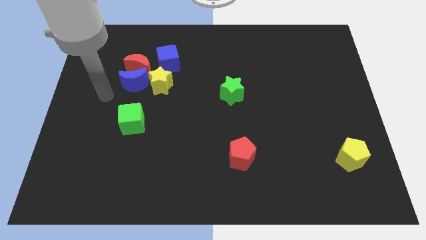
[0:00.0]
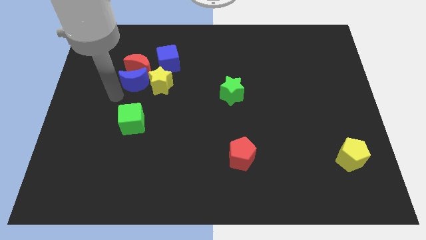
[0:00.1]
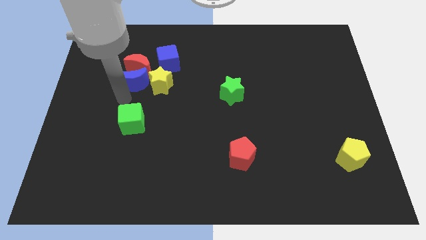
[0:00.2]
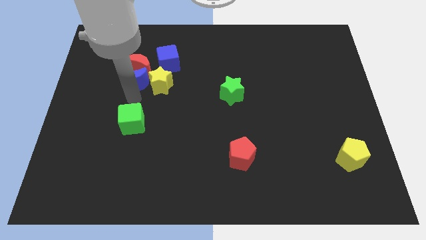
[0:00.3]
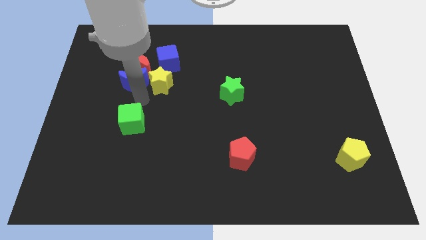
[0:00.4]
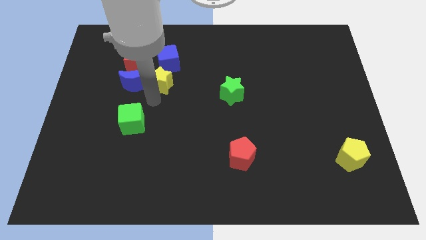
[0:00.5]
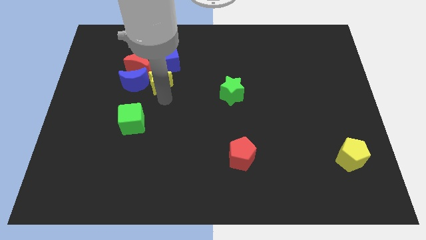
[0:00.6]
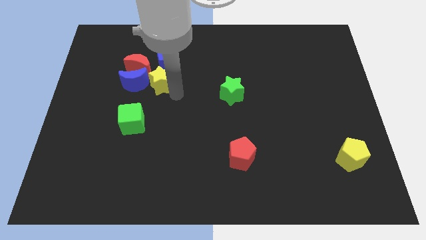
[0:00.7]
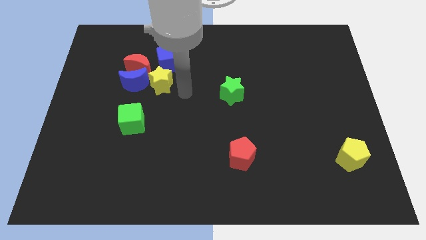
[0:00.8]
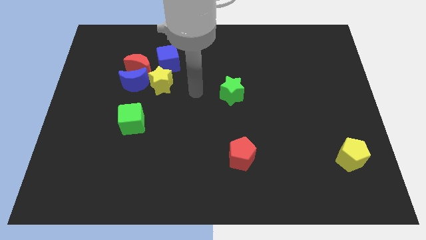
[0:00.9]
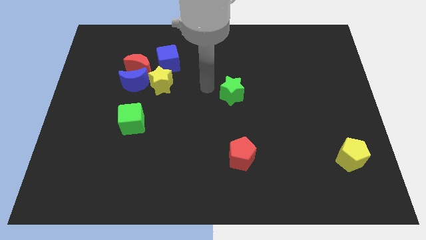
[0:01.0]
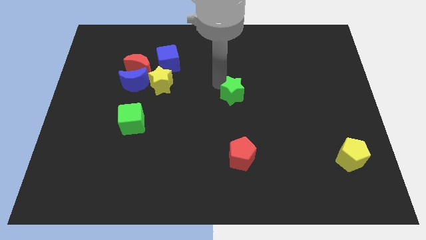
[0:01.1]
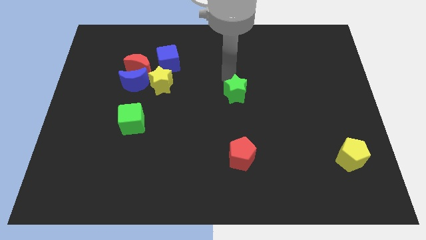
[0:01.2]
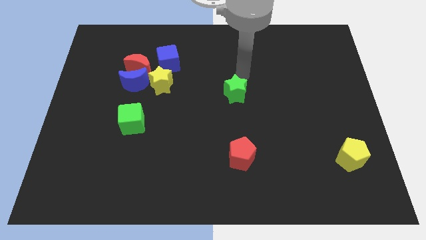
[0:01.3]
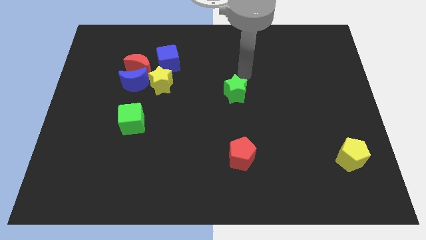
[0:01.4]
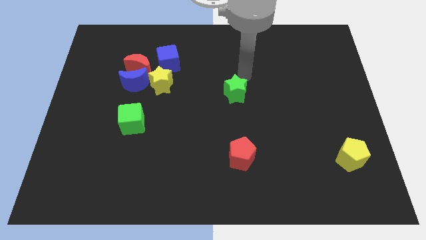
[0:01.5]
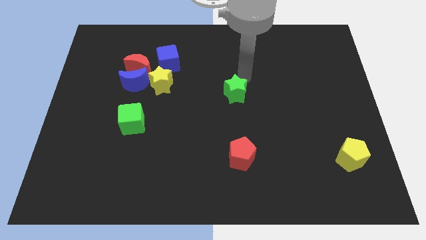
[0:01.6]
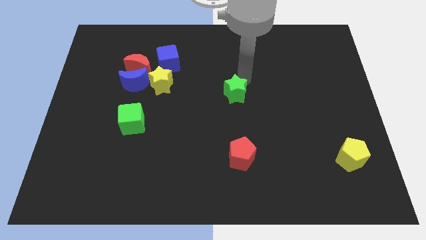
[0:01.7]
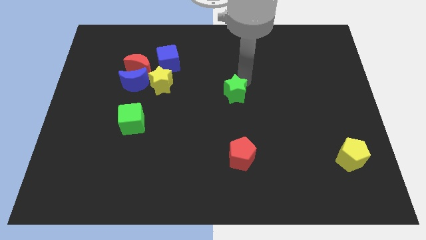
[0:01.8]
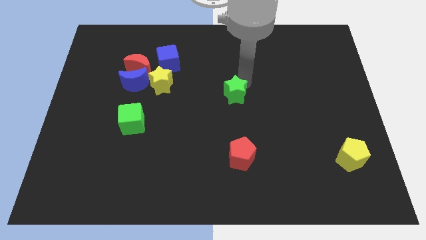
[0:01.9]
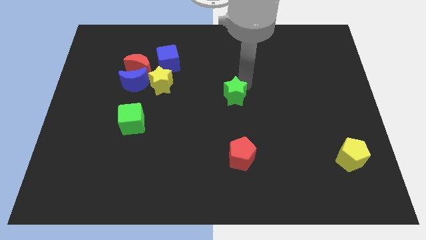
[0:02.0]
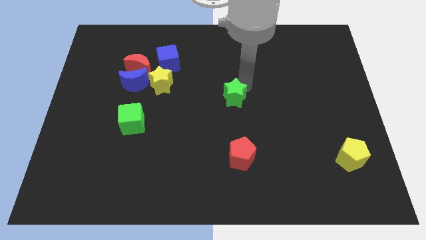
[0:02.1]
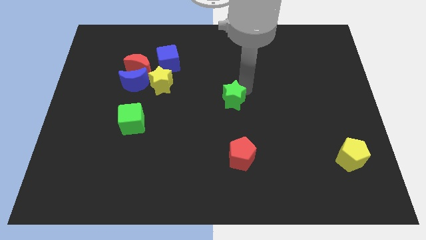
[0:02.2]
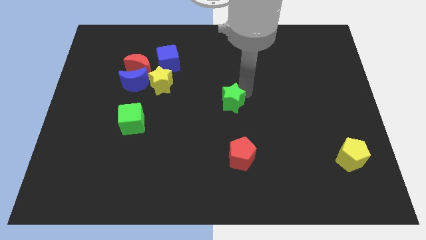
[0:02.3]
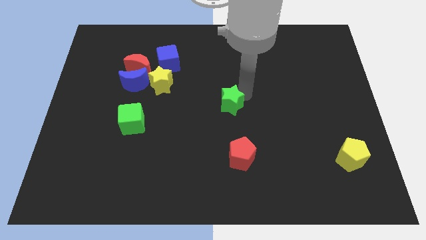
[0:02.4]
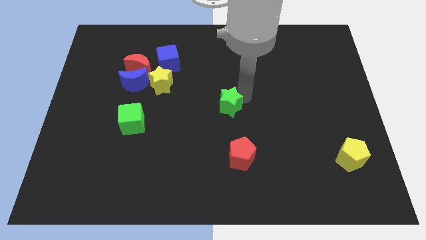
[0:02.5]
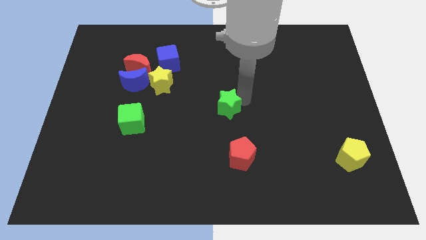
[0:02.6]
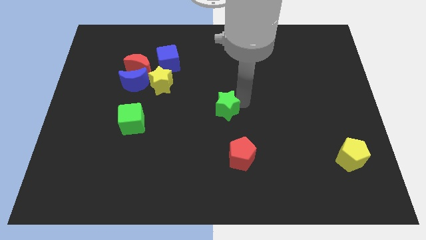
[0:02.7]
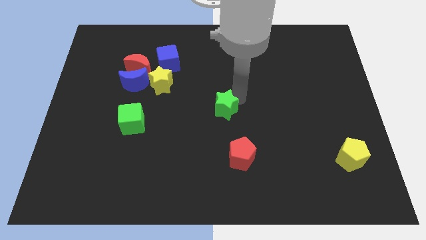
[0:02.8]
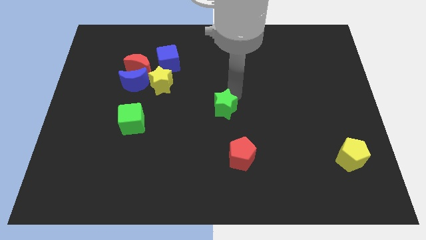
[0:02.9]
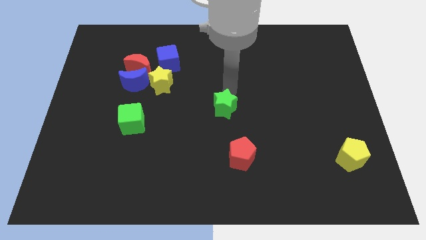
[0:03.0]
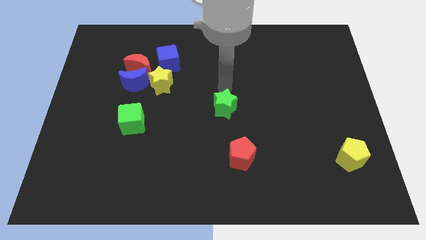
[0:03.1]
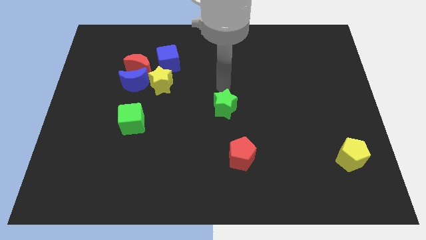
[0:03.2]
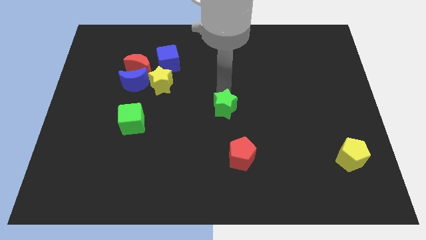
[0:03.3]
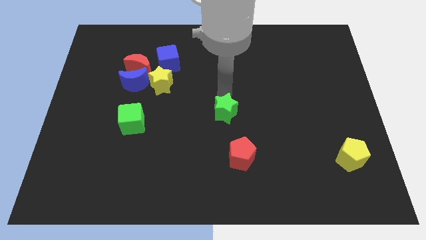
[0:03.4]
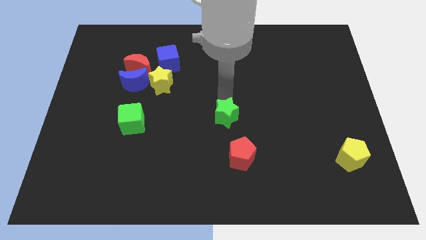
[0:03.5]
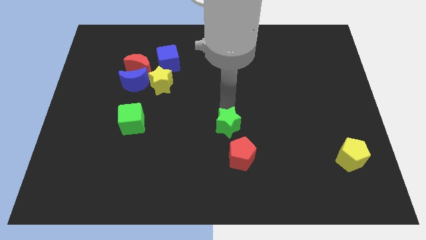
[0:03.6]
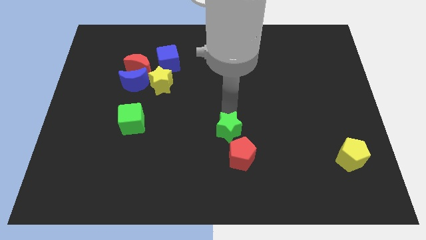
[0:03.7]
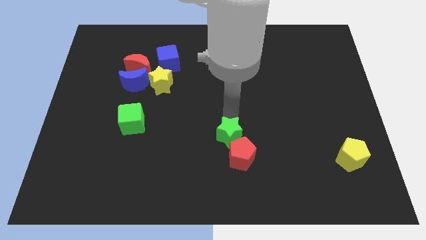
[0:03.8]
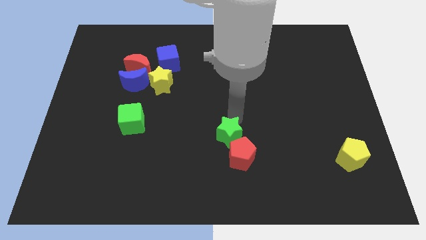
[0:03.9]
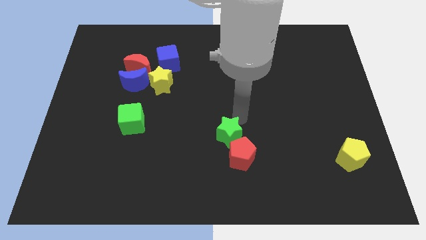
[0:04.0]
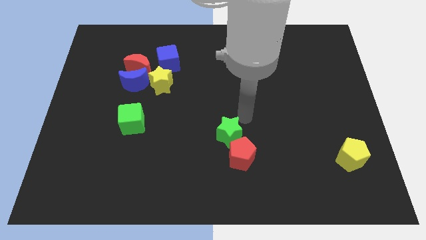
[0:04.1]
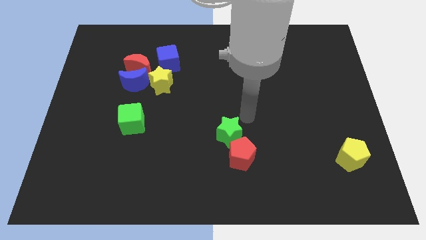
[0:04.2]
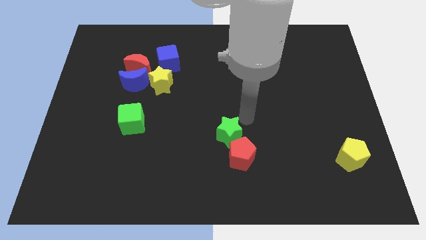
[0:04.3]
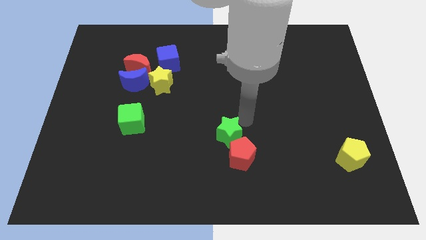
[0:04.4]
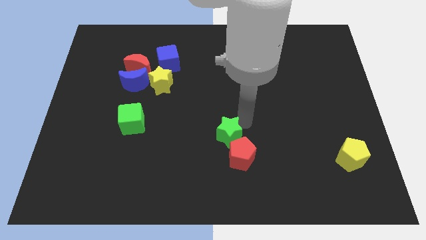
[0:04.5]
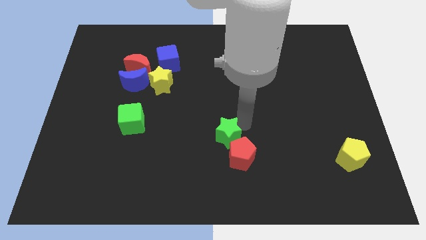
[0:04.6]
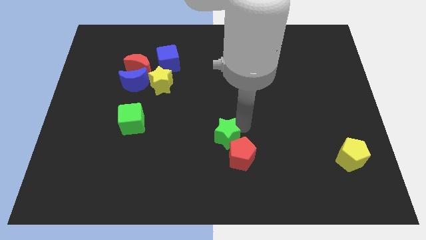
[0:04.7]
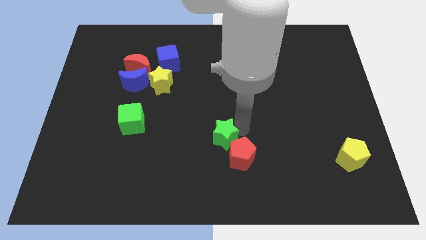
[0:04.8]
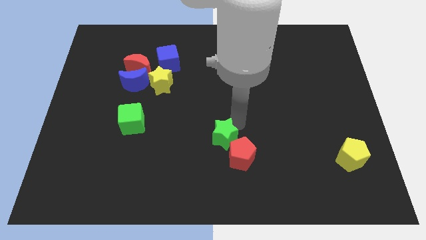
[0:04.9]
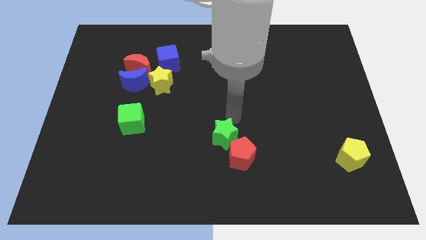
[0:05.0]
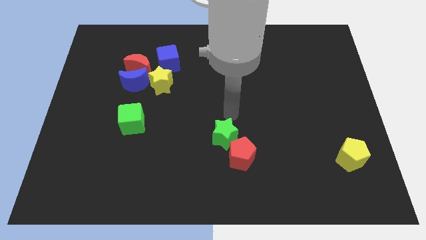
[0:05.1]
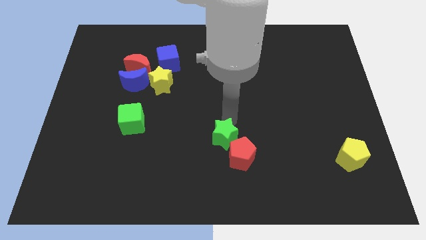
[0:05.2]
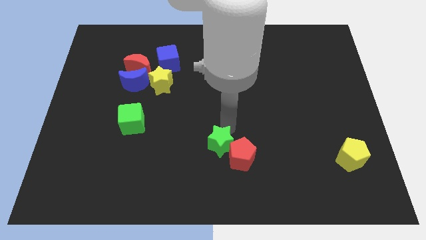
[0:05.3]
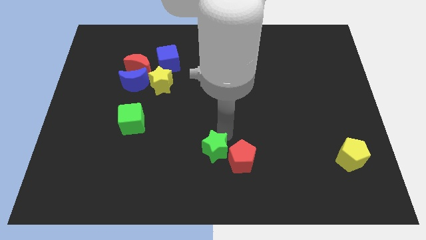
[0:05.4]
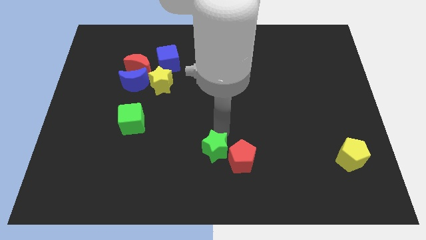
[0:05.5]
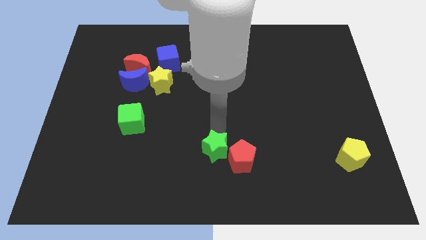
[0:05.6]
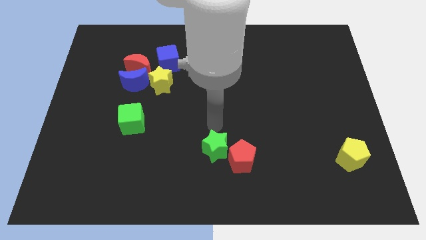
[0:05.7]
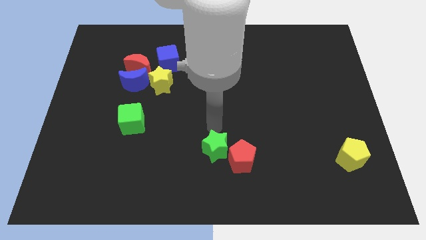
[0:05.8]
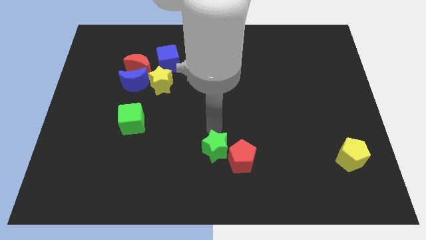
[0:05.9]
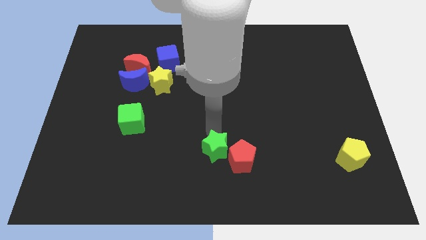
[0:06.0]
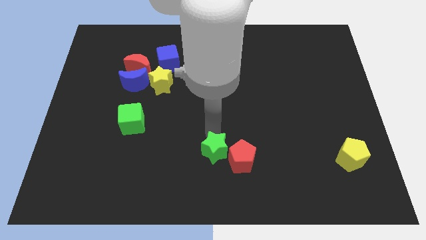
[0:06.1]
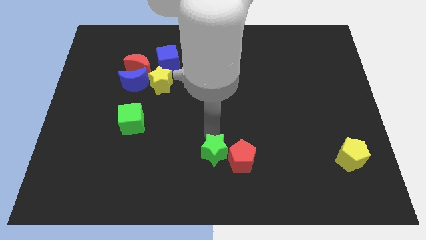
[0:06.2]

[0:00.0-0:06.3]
move the green star to the bottom
